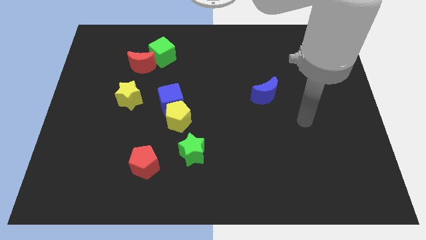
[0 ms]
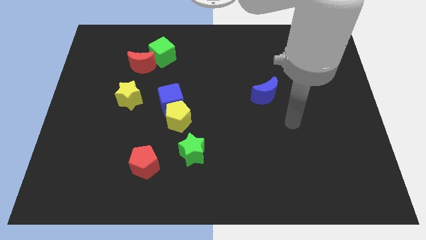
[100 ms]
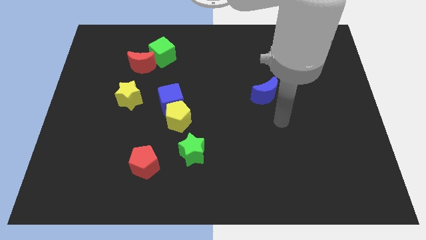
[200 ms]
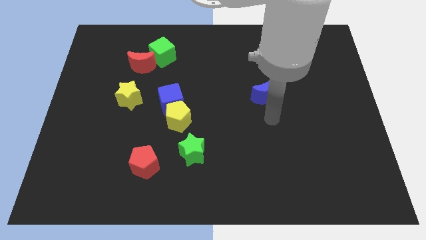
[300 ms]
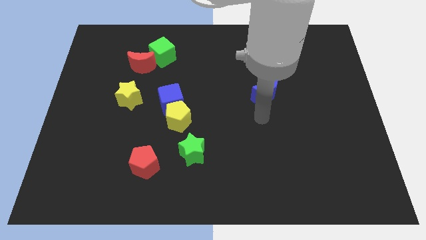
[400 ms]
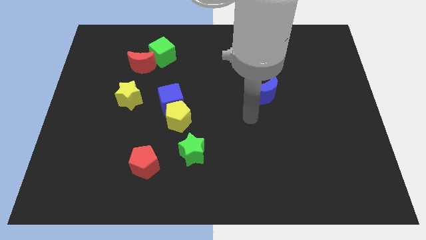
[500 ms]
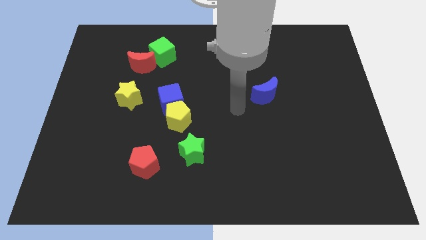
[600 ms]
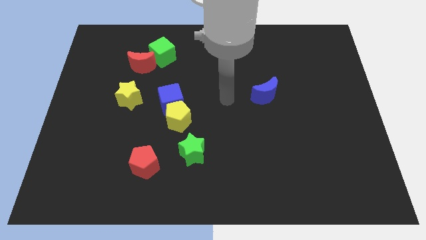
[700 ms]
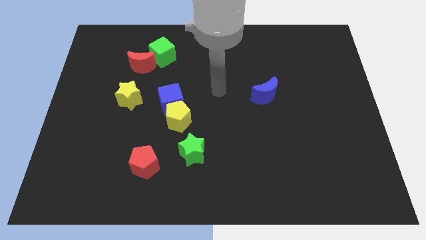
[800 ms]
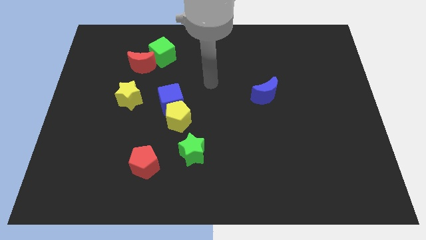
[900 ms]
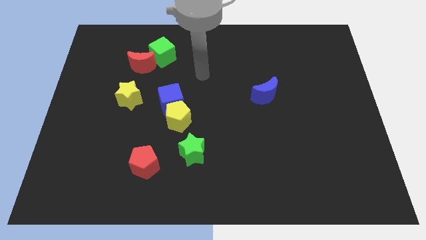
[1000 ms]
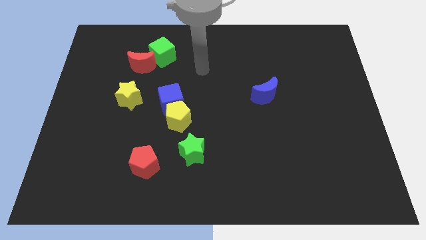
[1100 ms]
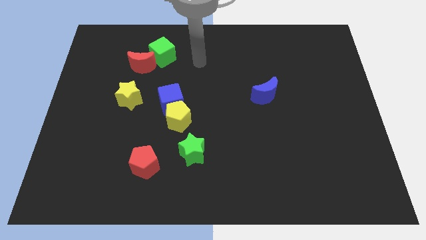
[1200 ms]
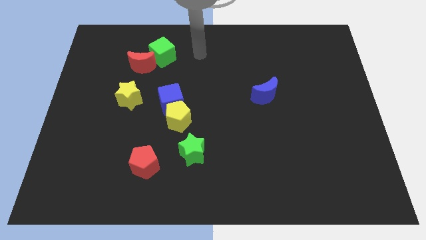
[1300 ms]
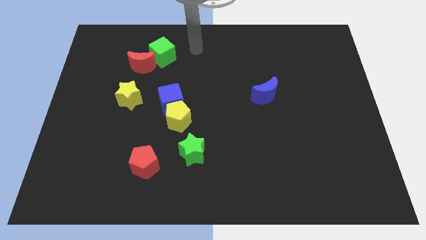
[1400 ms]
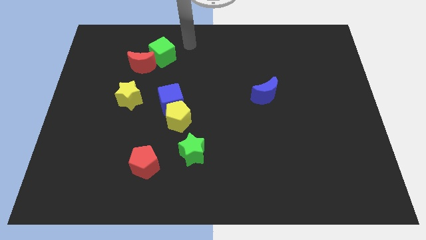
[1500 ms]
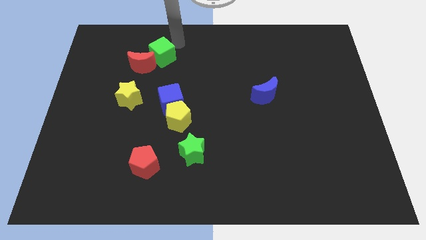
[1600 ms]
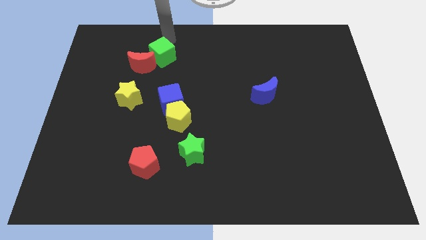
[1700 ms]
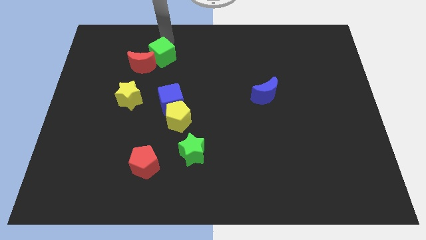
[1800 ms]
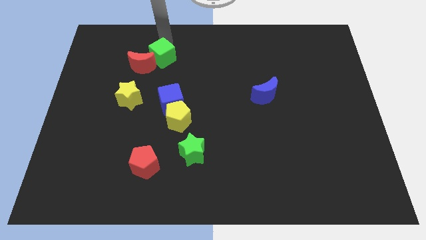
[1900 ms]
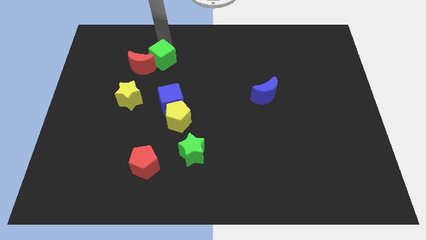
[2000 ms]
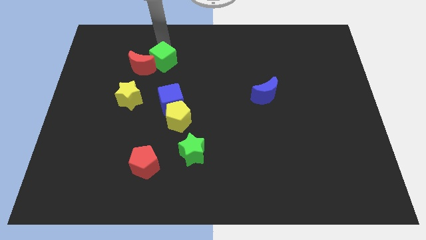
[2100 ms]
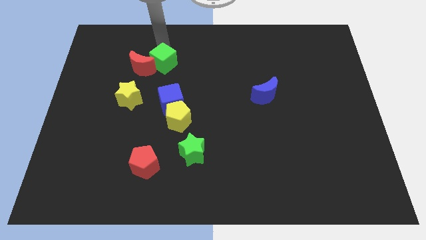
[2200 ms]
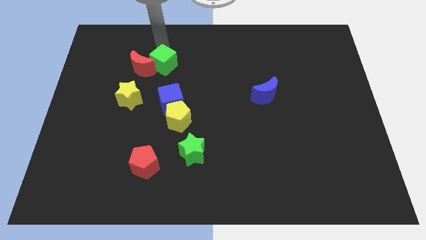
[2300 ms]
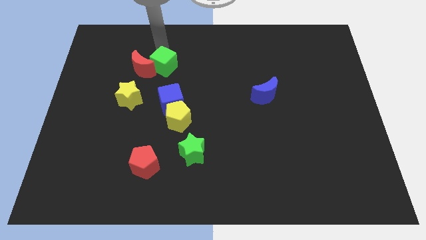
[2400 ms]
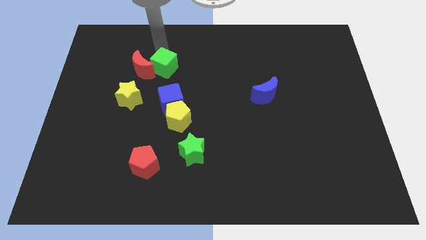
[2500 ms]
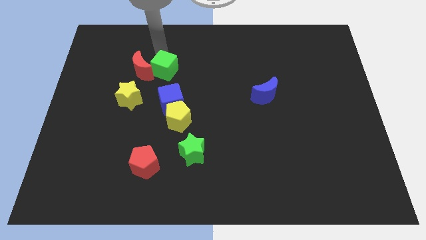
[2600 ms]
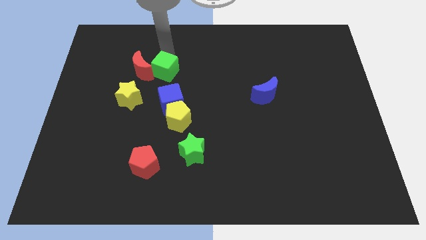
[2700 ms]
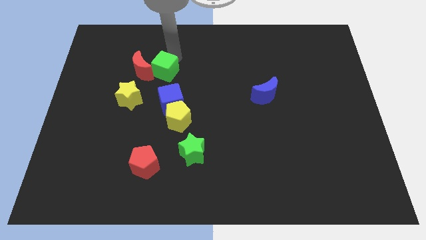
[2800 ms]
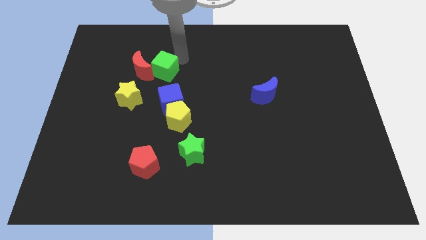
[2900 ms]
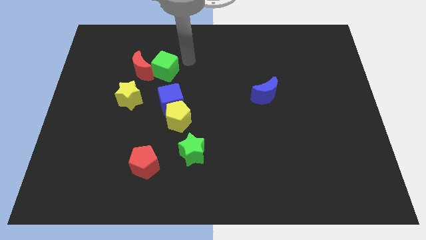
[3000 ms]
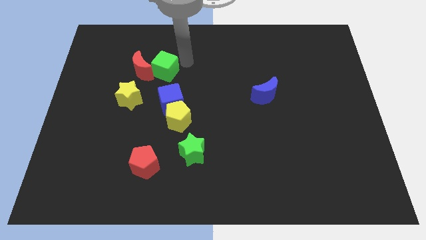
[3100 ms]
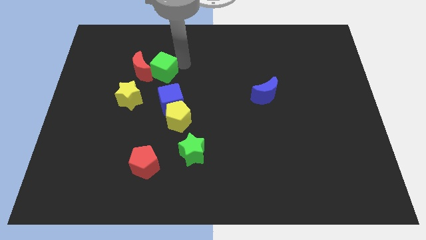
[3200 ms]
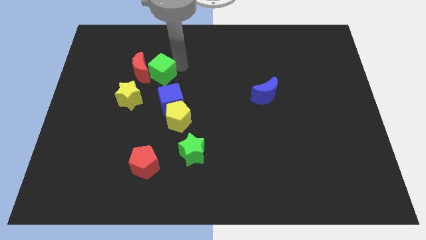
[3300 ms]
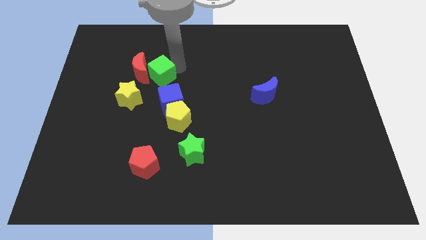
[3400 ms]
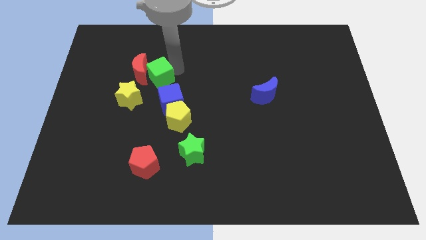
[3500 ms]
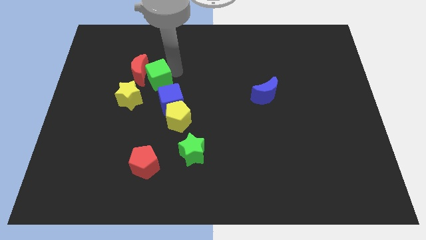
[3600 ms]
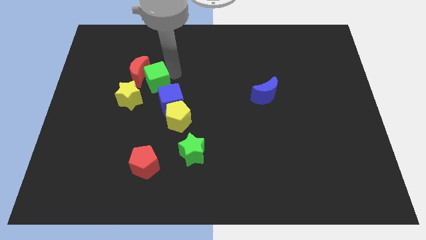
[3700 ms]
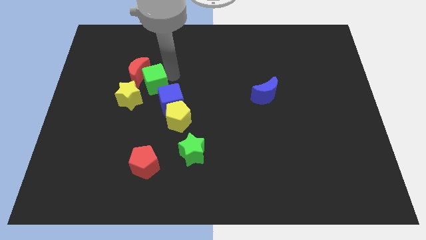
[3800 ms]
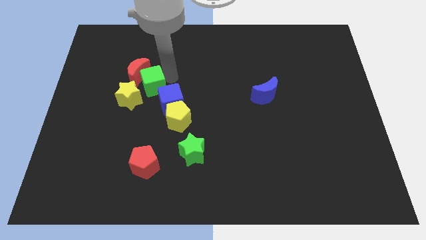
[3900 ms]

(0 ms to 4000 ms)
slightly move the green cube downwards and left diagonally

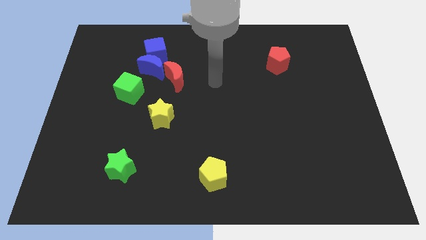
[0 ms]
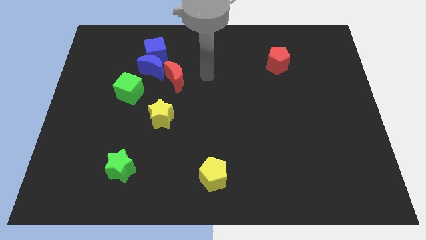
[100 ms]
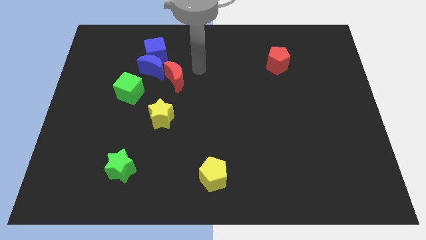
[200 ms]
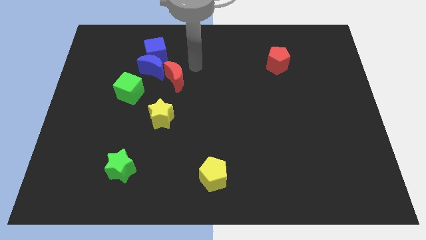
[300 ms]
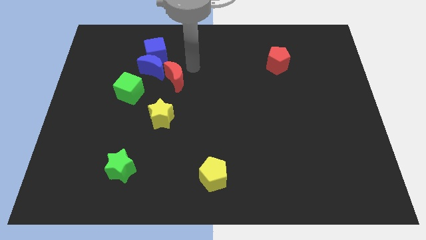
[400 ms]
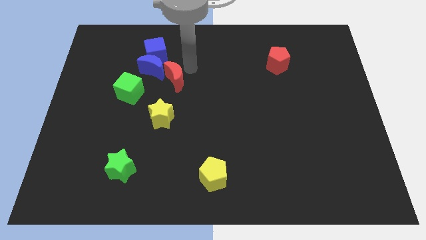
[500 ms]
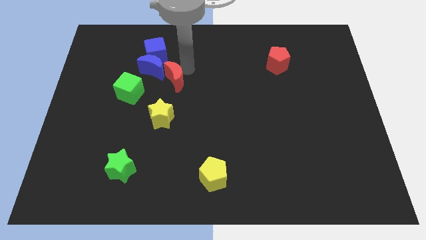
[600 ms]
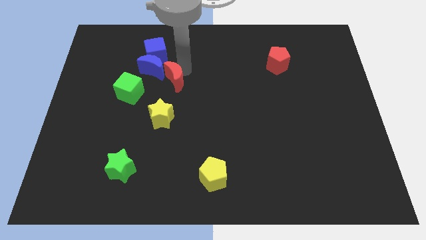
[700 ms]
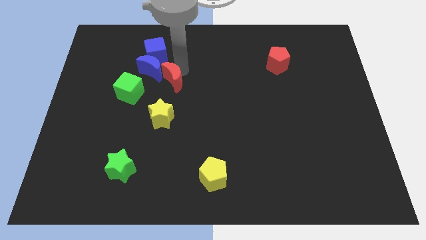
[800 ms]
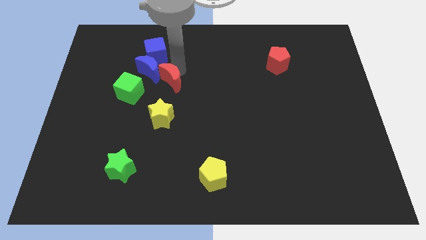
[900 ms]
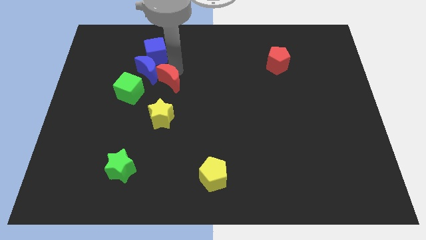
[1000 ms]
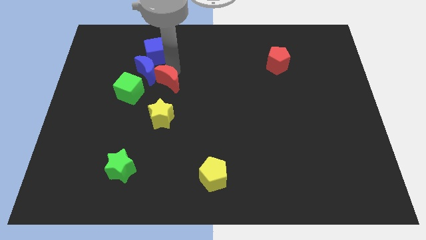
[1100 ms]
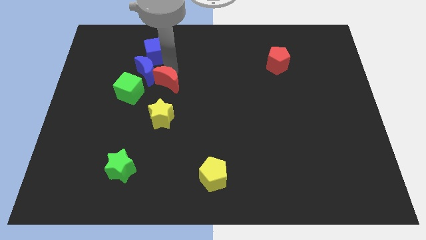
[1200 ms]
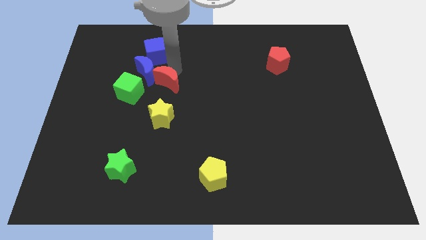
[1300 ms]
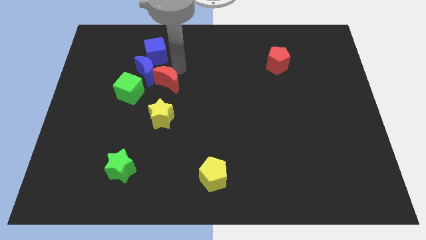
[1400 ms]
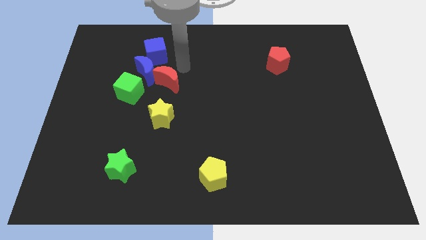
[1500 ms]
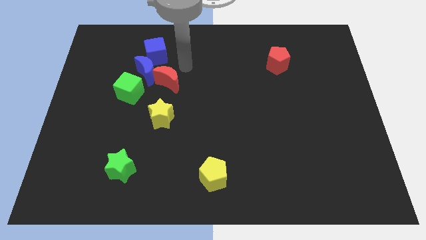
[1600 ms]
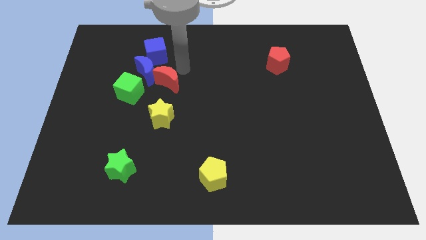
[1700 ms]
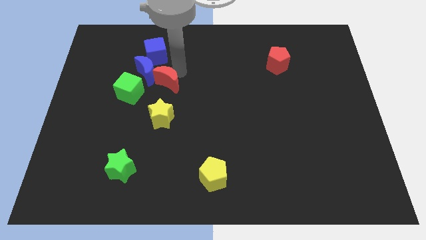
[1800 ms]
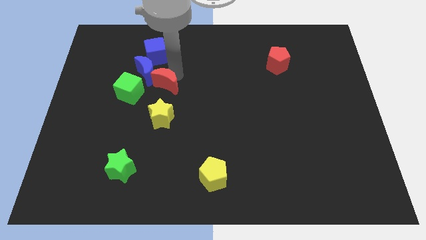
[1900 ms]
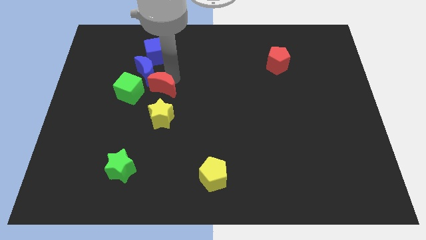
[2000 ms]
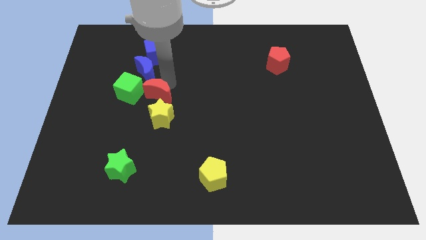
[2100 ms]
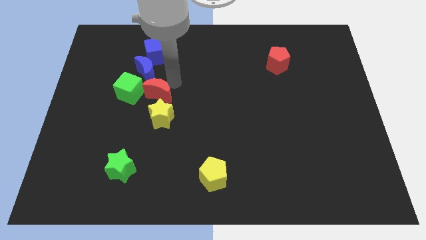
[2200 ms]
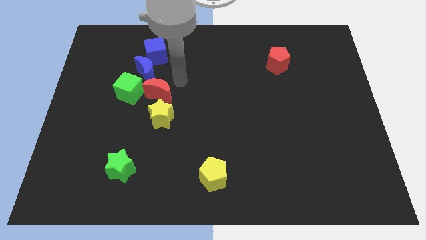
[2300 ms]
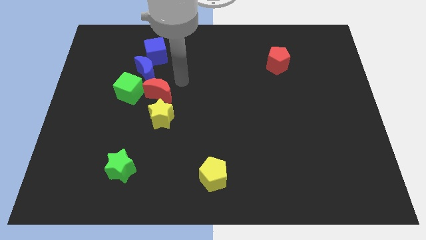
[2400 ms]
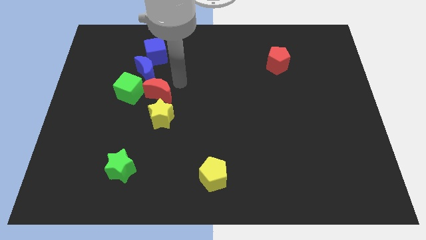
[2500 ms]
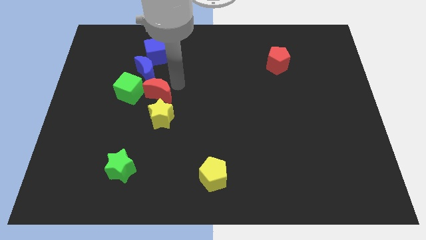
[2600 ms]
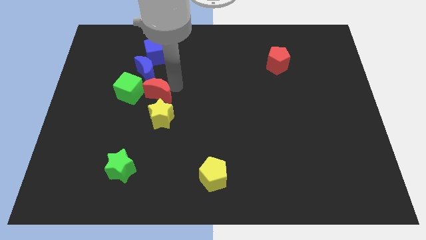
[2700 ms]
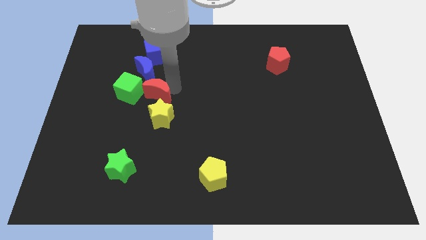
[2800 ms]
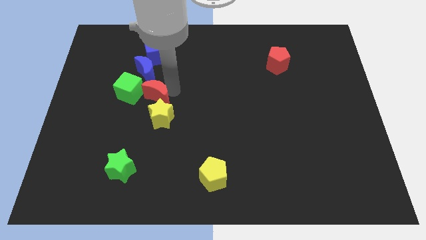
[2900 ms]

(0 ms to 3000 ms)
push the red moon downwards and then to the left a little bit

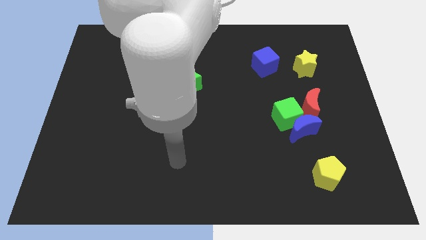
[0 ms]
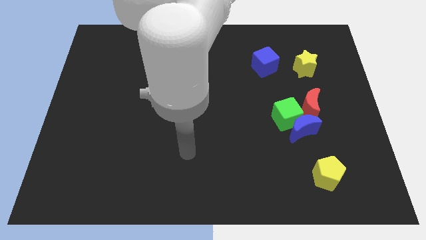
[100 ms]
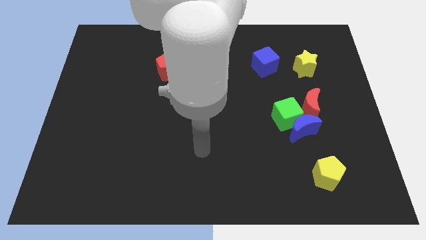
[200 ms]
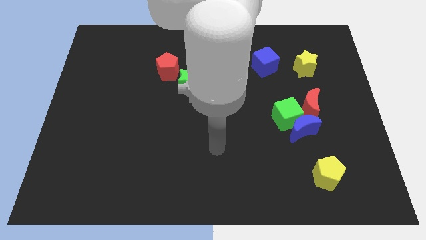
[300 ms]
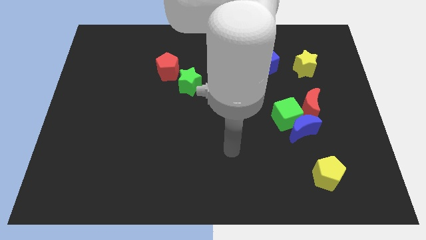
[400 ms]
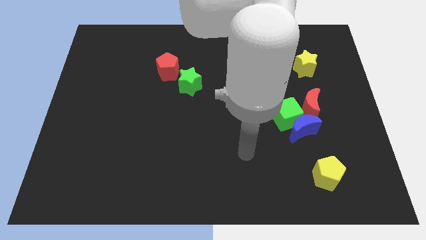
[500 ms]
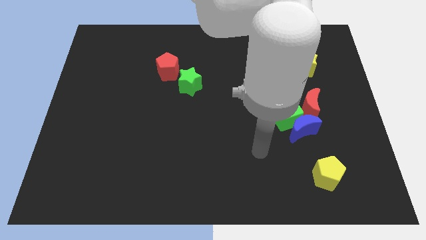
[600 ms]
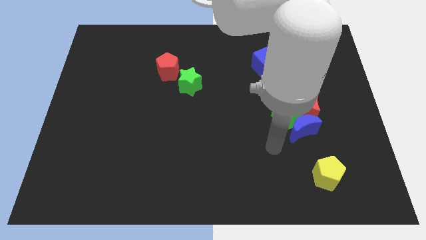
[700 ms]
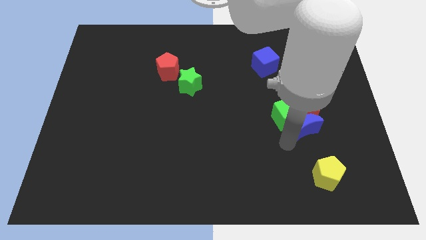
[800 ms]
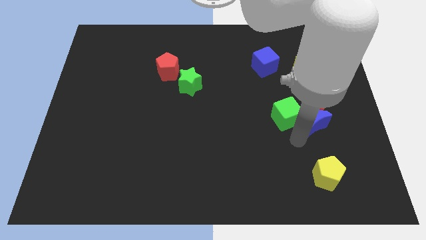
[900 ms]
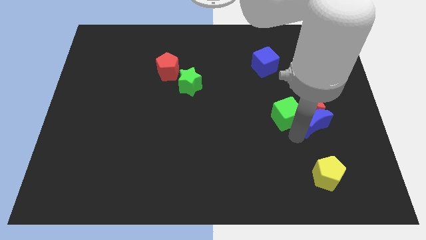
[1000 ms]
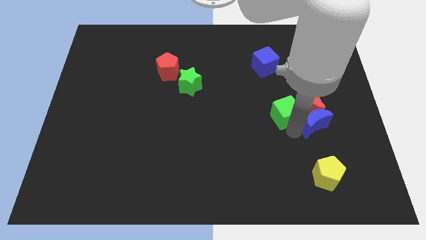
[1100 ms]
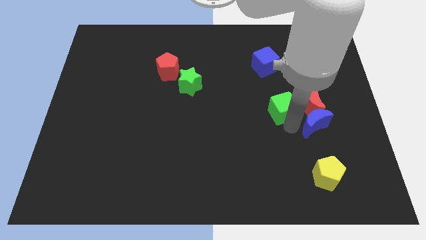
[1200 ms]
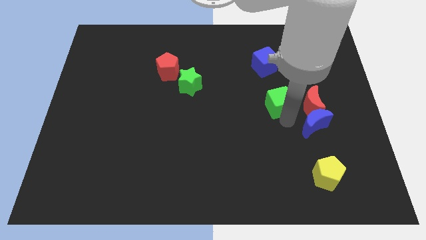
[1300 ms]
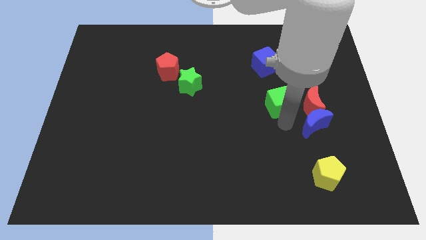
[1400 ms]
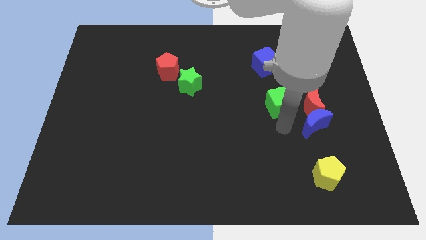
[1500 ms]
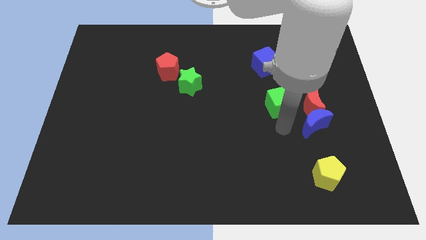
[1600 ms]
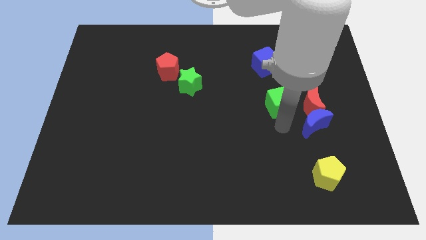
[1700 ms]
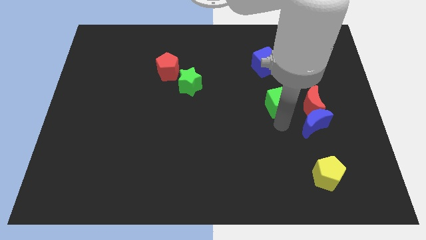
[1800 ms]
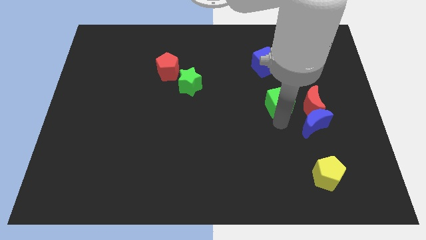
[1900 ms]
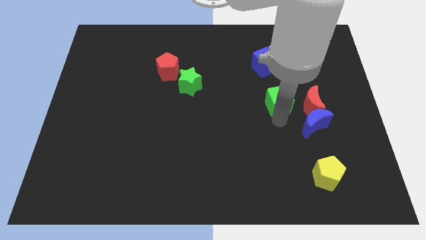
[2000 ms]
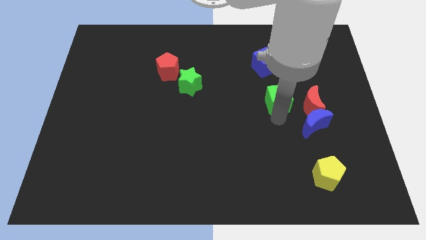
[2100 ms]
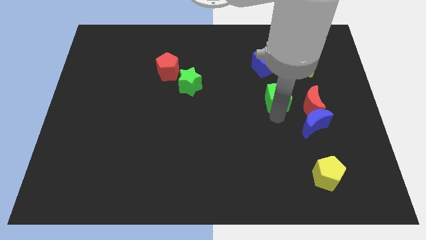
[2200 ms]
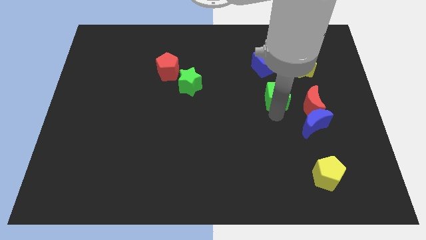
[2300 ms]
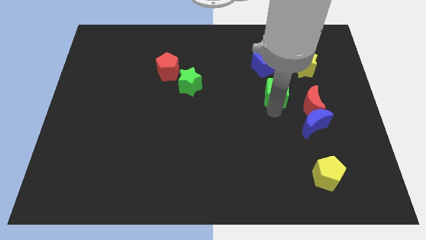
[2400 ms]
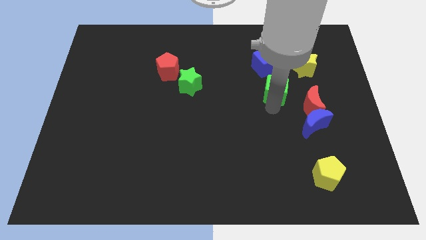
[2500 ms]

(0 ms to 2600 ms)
move the green cube a bit upwards
